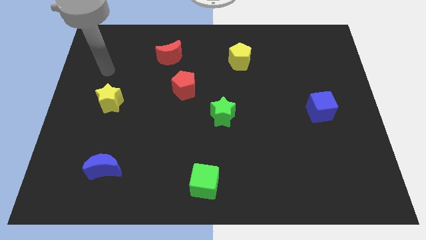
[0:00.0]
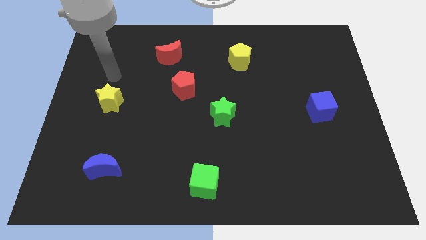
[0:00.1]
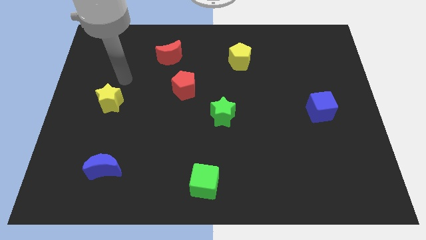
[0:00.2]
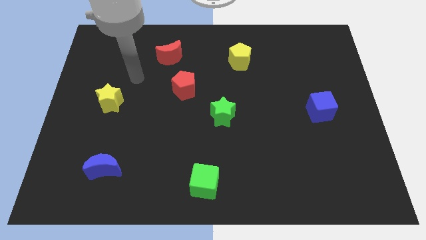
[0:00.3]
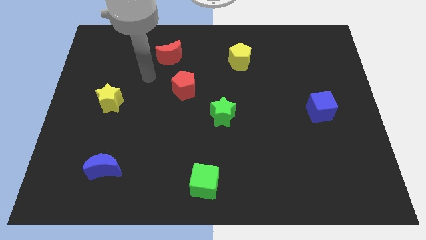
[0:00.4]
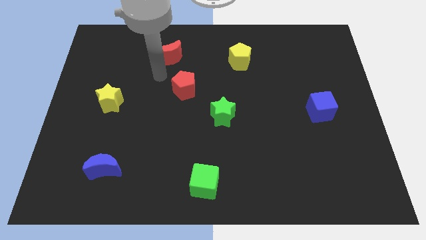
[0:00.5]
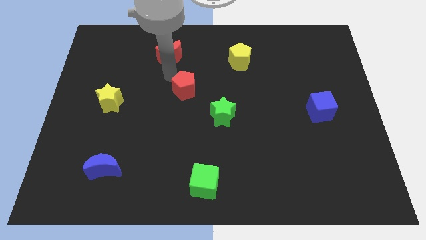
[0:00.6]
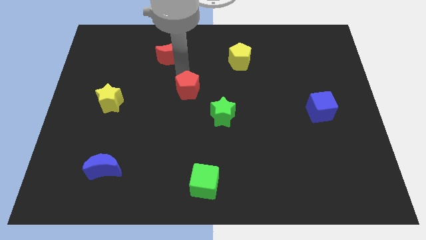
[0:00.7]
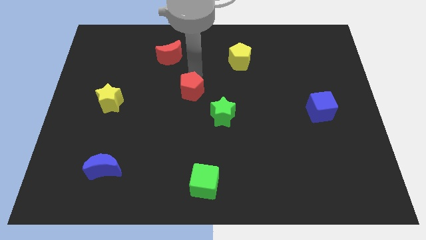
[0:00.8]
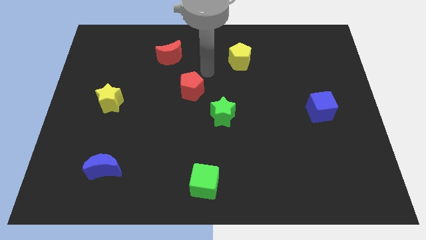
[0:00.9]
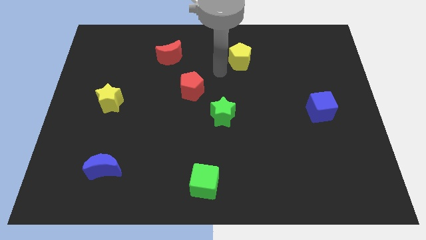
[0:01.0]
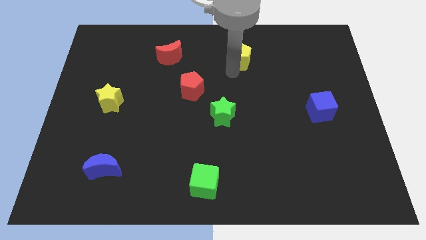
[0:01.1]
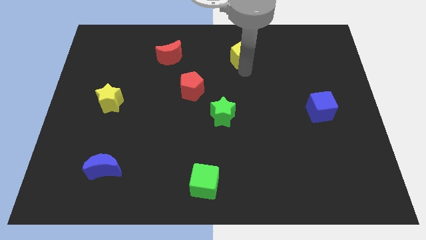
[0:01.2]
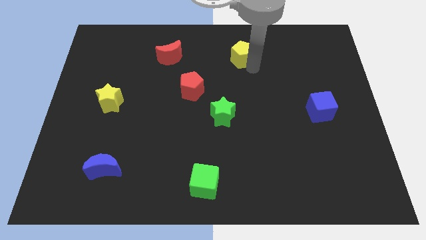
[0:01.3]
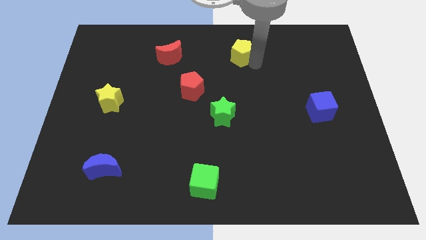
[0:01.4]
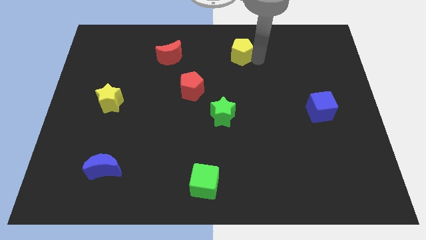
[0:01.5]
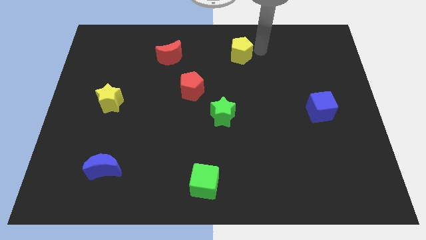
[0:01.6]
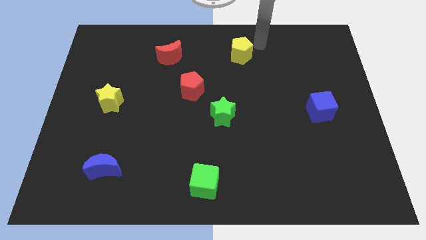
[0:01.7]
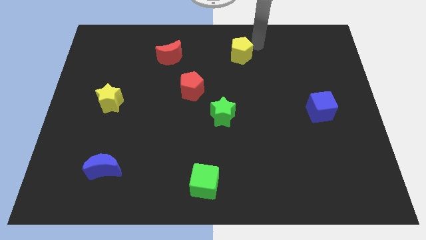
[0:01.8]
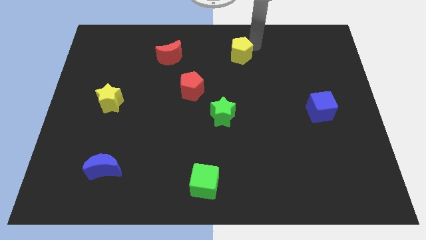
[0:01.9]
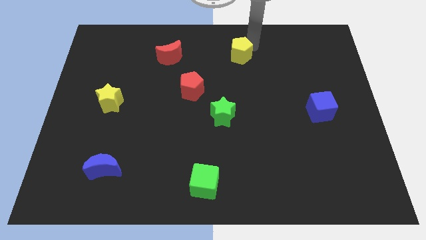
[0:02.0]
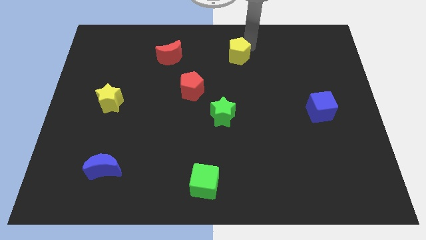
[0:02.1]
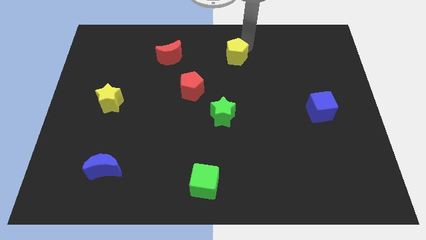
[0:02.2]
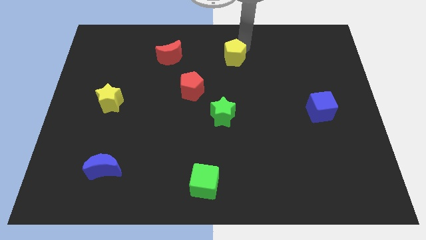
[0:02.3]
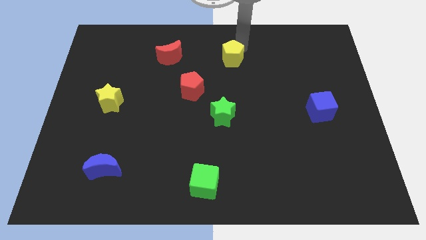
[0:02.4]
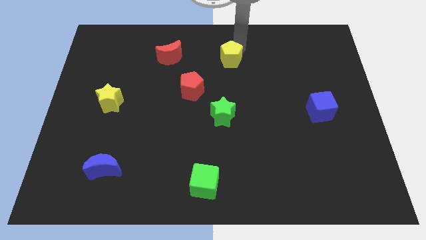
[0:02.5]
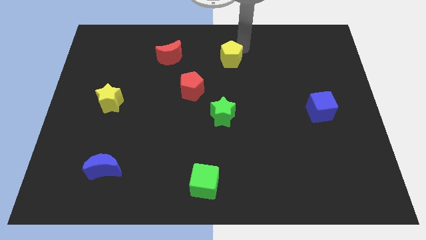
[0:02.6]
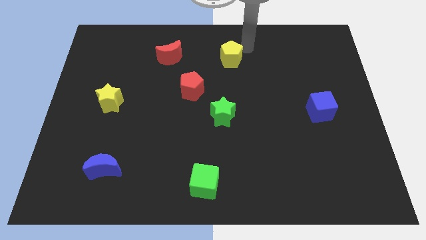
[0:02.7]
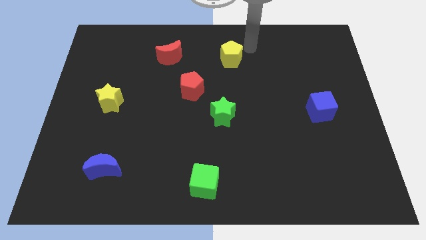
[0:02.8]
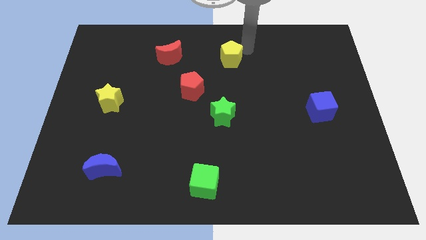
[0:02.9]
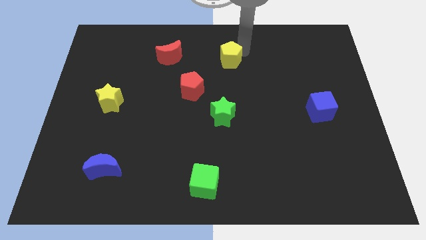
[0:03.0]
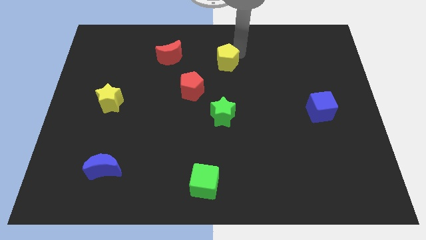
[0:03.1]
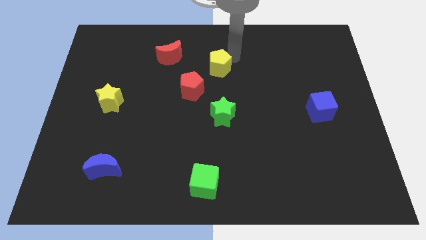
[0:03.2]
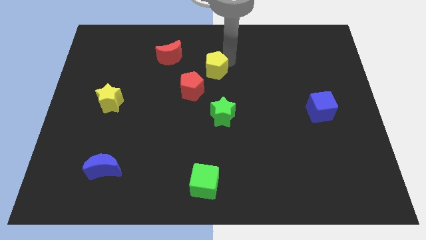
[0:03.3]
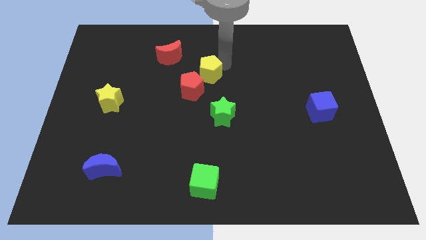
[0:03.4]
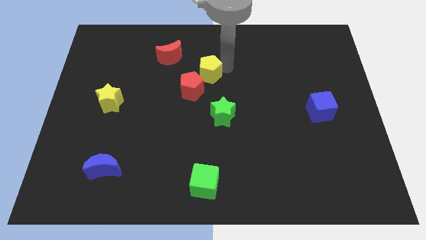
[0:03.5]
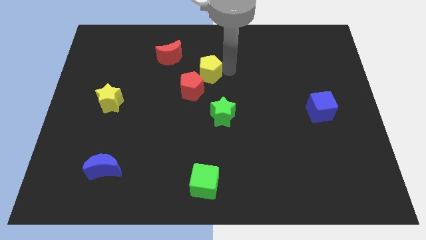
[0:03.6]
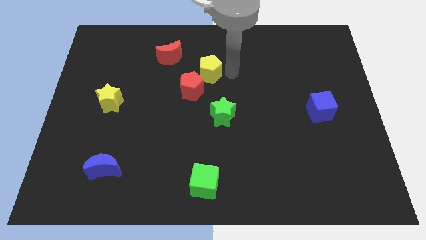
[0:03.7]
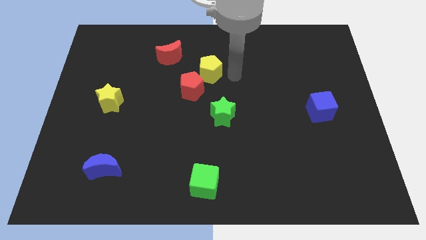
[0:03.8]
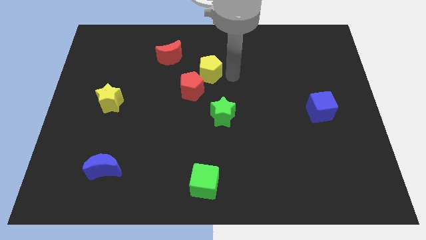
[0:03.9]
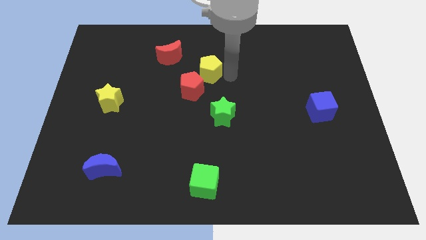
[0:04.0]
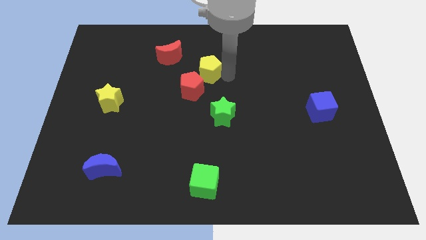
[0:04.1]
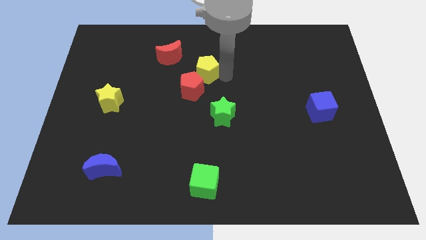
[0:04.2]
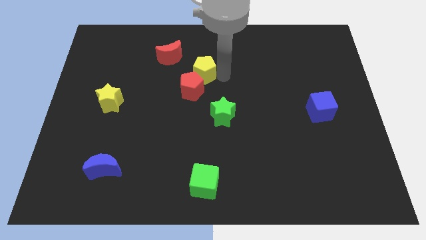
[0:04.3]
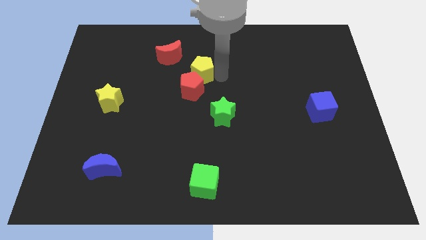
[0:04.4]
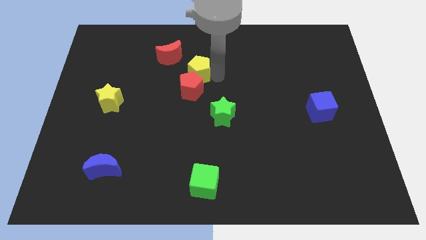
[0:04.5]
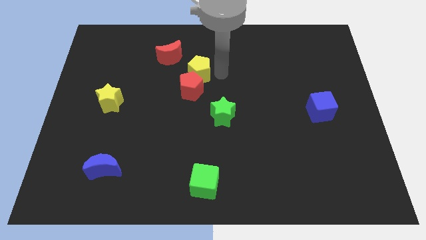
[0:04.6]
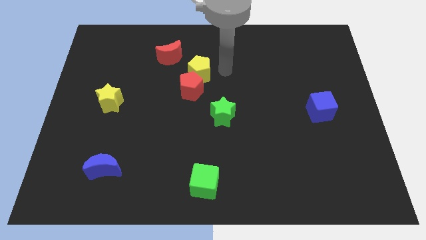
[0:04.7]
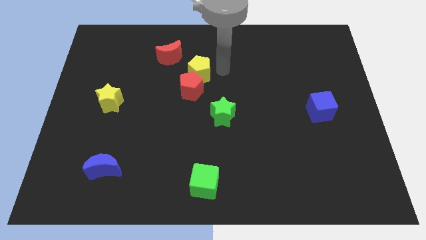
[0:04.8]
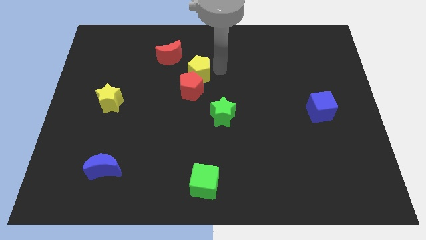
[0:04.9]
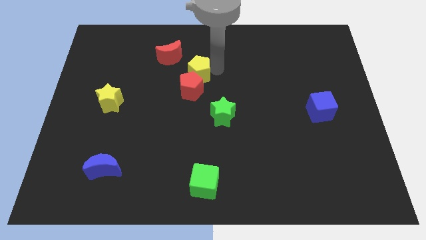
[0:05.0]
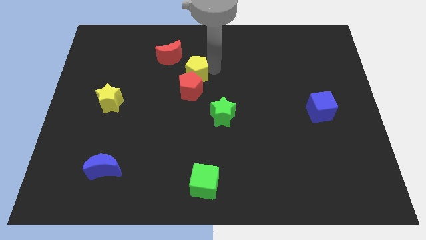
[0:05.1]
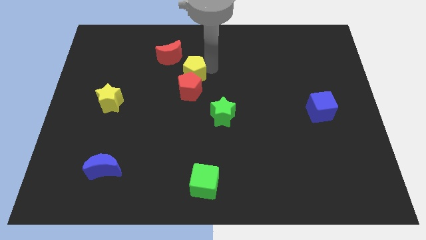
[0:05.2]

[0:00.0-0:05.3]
slide the yellow pentagon to the top left of the red pentagon

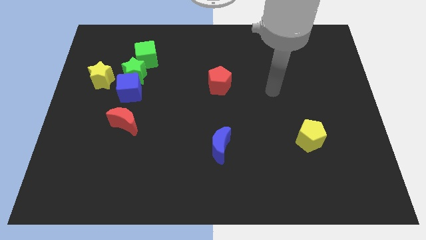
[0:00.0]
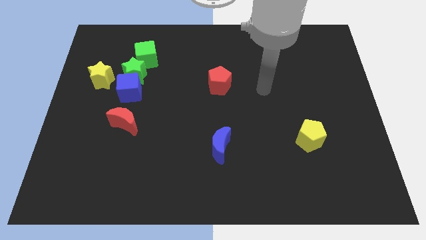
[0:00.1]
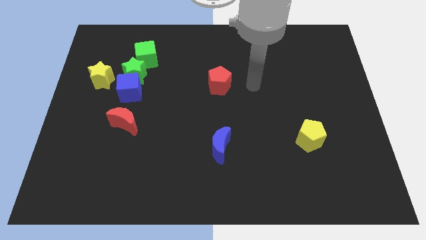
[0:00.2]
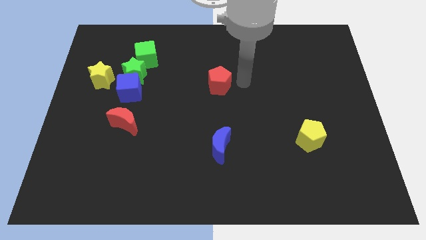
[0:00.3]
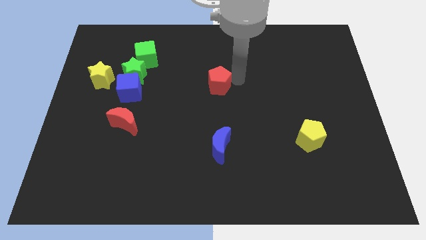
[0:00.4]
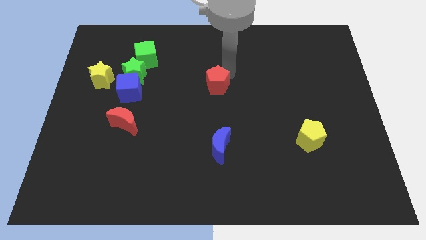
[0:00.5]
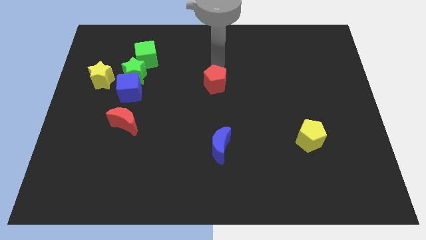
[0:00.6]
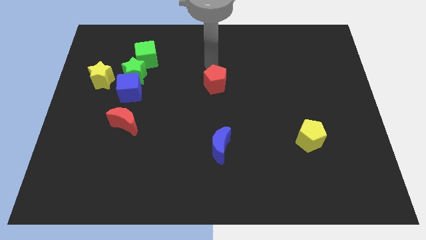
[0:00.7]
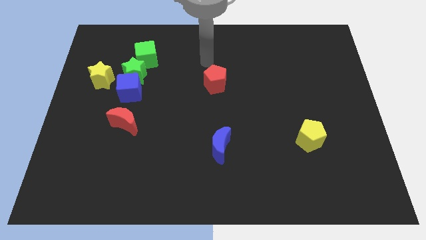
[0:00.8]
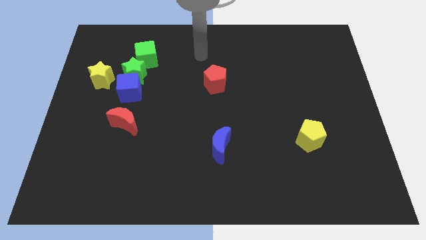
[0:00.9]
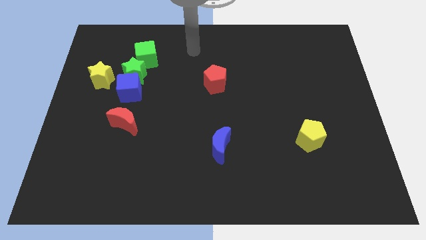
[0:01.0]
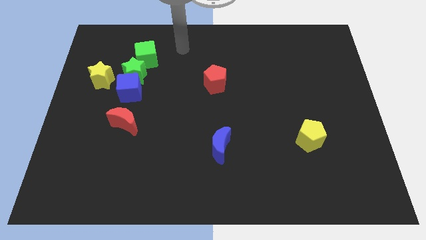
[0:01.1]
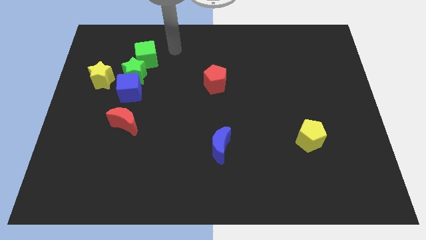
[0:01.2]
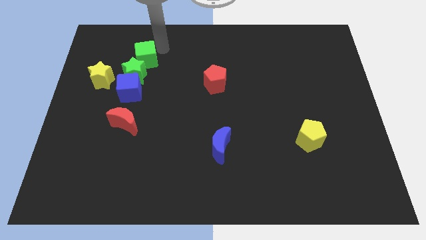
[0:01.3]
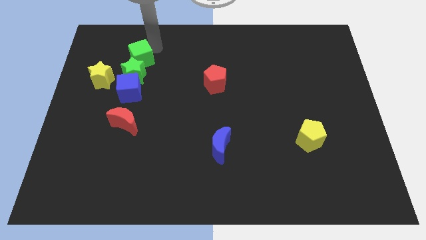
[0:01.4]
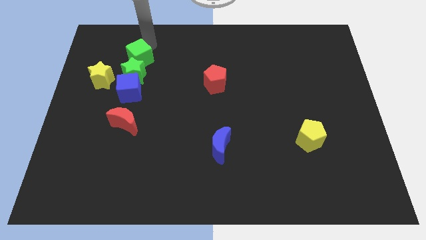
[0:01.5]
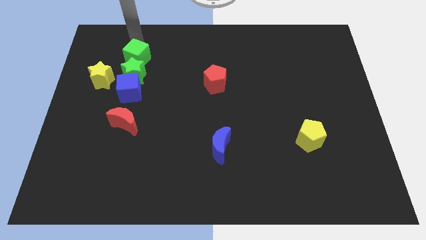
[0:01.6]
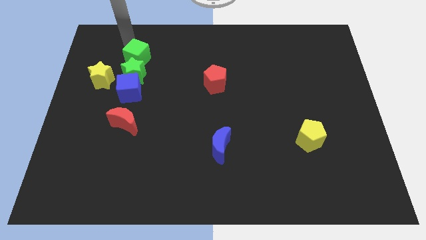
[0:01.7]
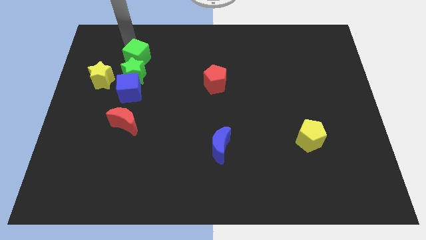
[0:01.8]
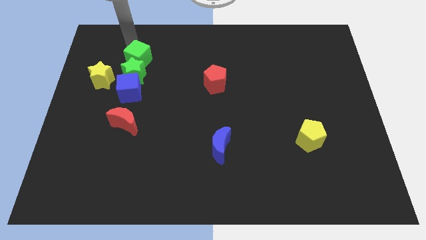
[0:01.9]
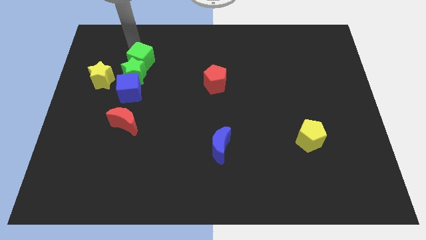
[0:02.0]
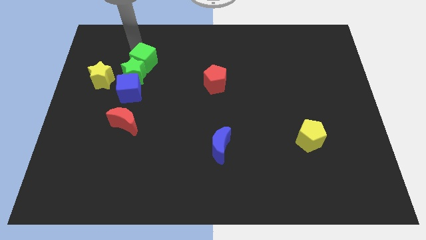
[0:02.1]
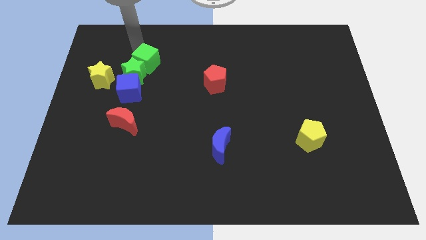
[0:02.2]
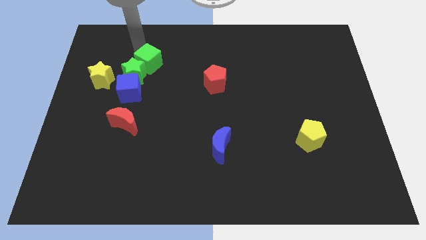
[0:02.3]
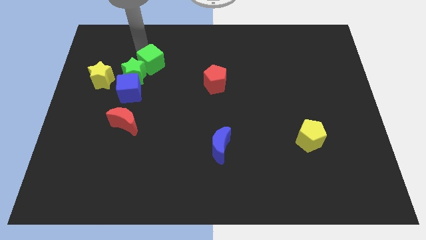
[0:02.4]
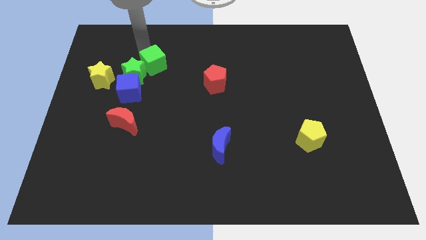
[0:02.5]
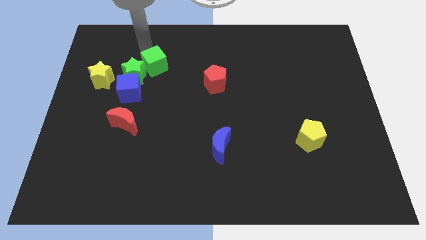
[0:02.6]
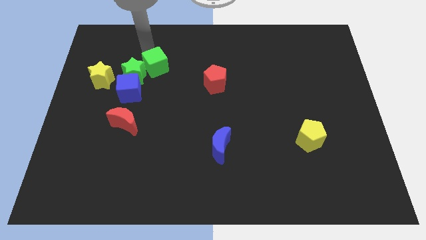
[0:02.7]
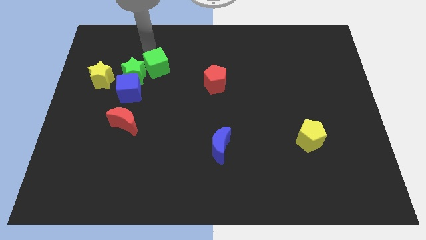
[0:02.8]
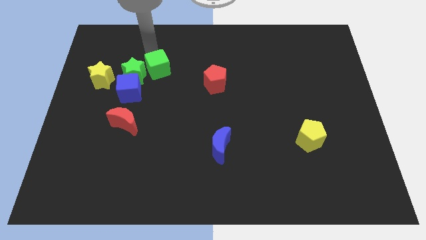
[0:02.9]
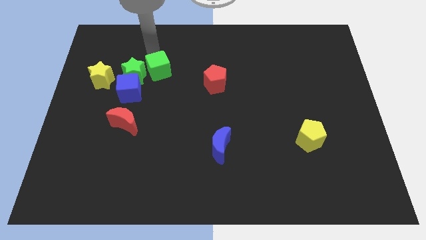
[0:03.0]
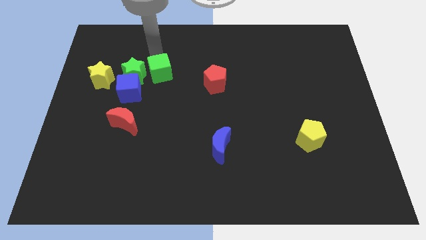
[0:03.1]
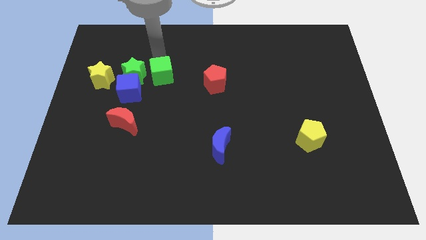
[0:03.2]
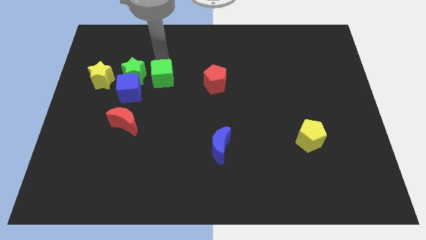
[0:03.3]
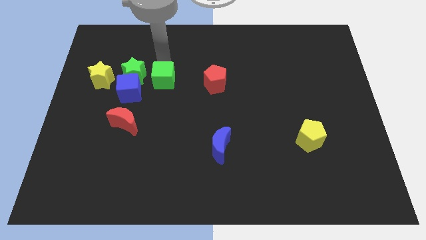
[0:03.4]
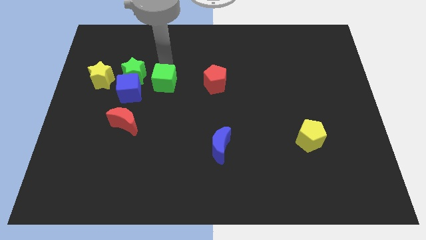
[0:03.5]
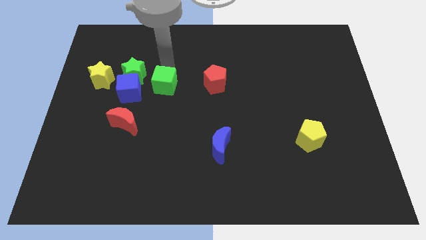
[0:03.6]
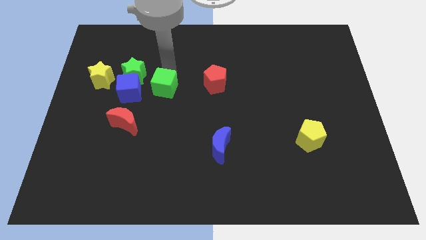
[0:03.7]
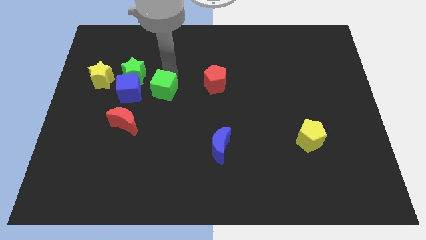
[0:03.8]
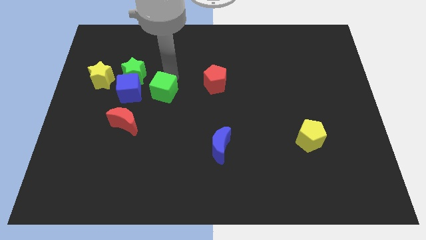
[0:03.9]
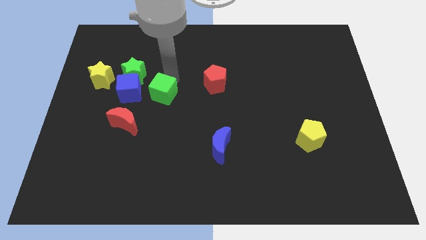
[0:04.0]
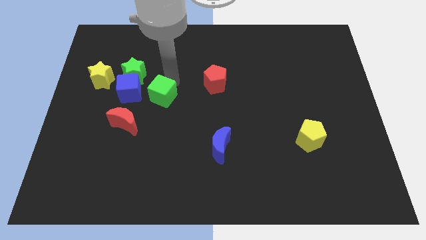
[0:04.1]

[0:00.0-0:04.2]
move the green cube diagonally down and to the right of the blue cube
